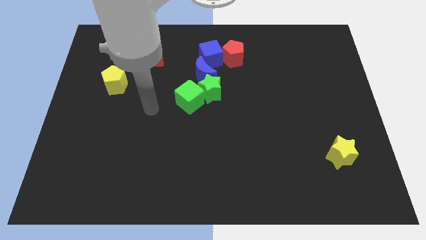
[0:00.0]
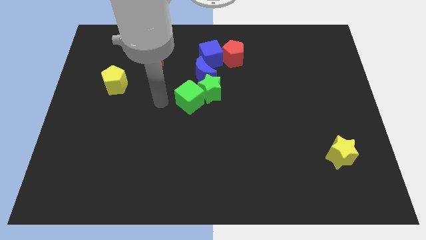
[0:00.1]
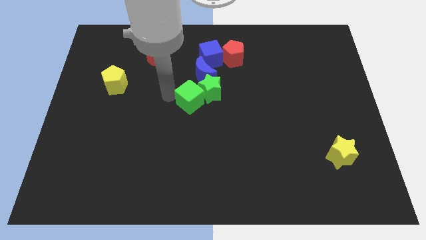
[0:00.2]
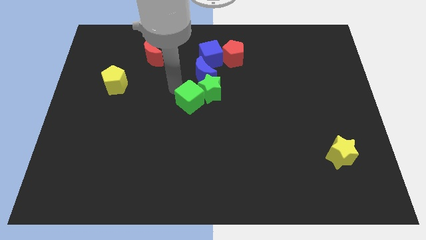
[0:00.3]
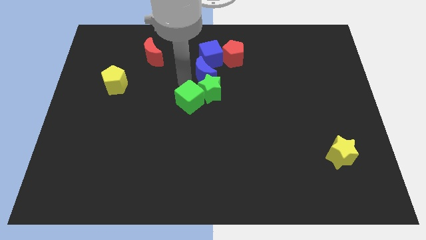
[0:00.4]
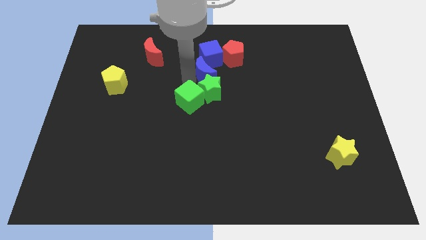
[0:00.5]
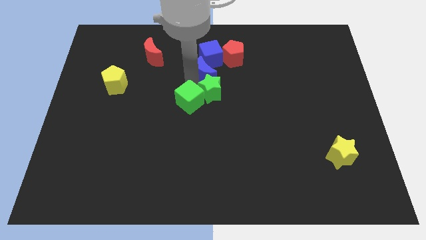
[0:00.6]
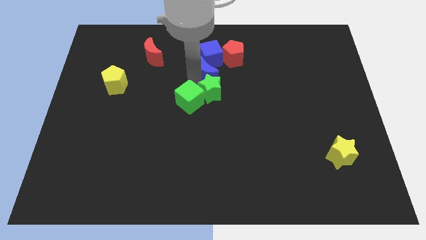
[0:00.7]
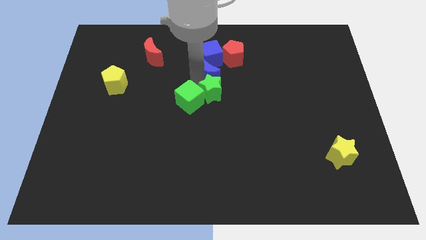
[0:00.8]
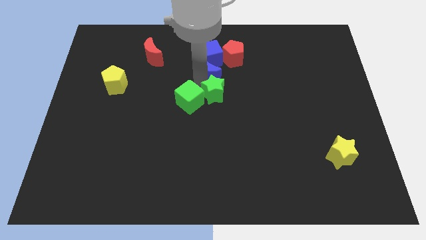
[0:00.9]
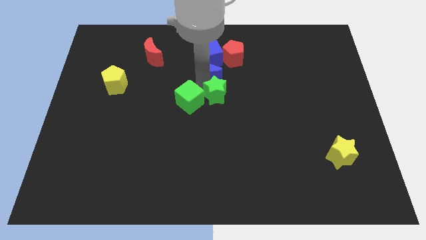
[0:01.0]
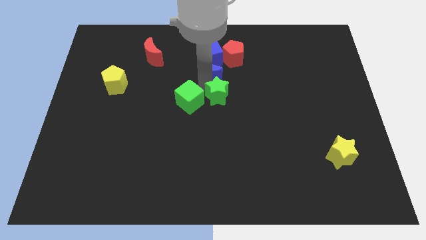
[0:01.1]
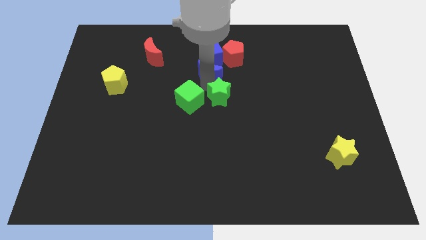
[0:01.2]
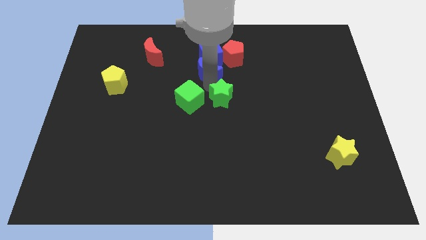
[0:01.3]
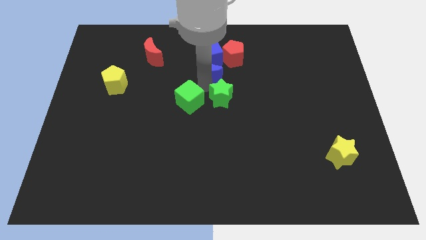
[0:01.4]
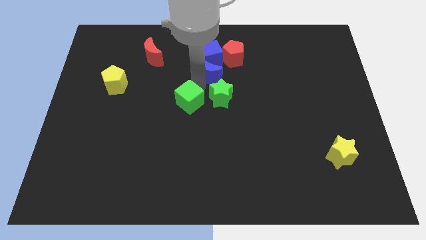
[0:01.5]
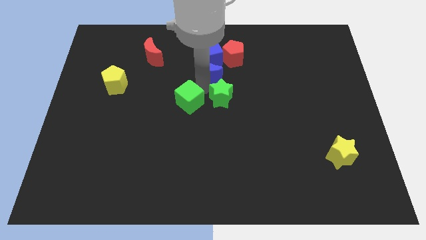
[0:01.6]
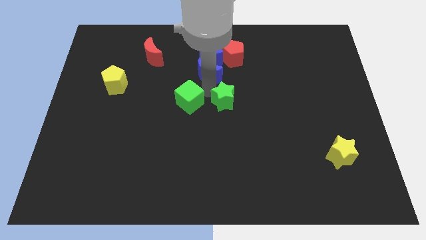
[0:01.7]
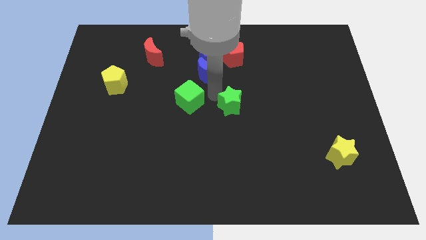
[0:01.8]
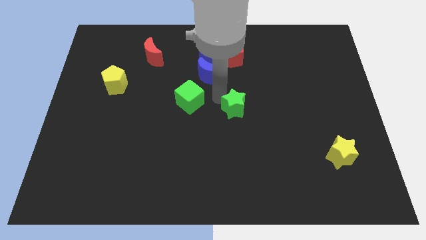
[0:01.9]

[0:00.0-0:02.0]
separate the green star from the green cube and blue moon

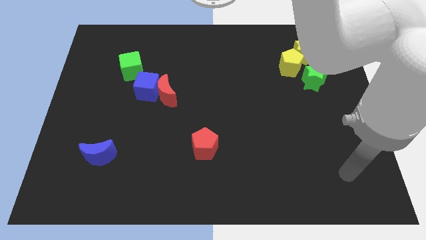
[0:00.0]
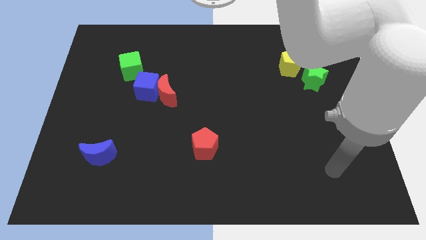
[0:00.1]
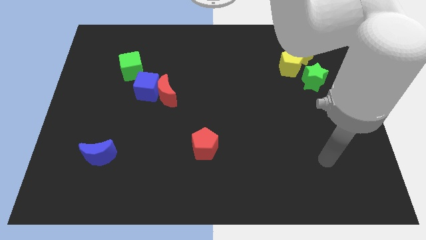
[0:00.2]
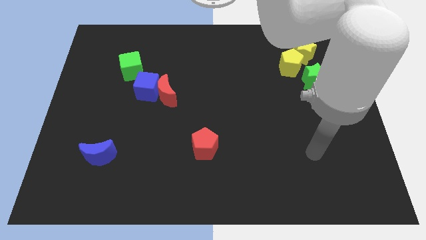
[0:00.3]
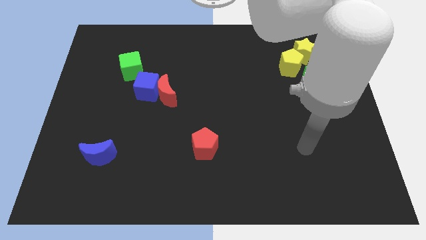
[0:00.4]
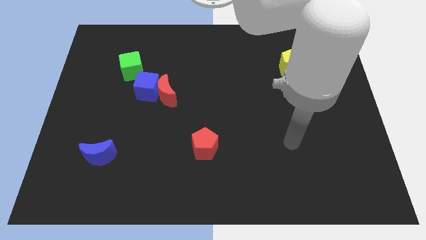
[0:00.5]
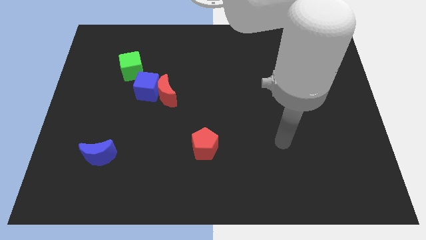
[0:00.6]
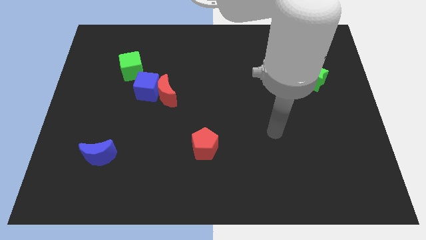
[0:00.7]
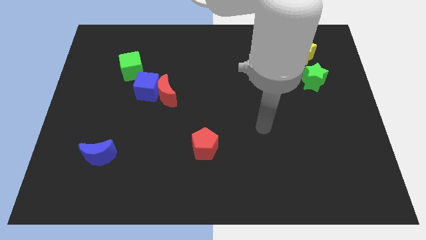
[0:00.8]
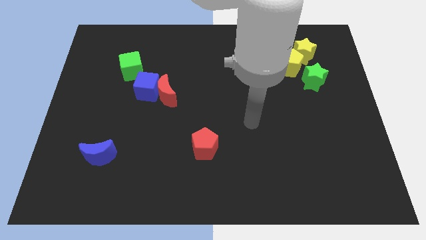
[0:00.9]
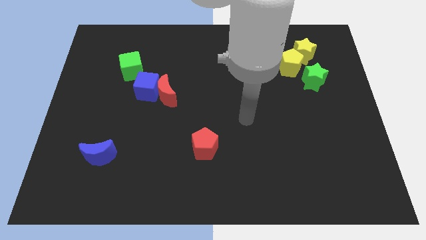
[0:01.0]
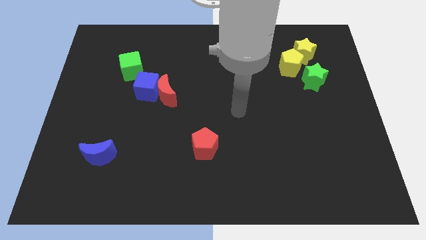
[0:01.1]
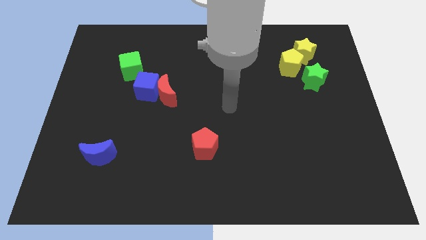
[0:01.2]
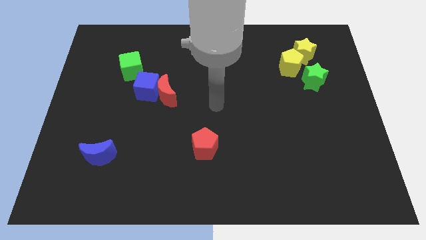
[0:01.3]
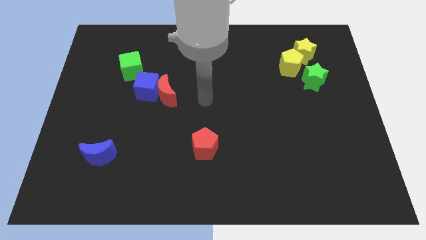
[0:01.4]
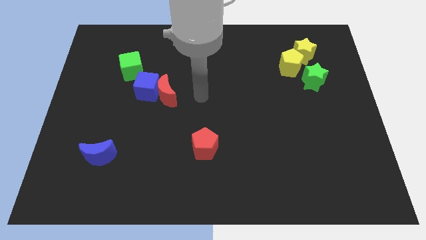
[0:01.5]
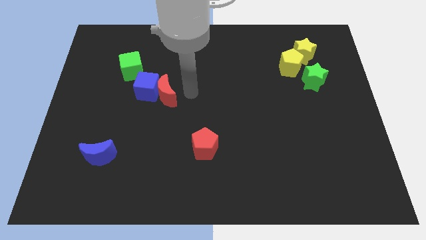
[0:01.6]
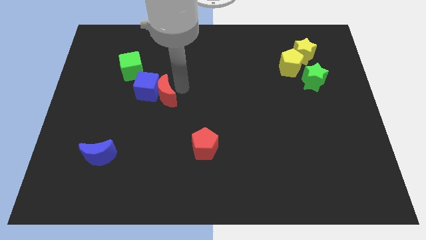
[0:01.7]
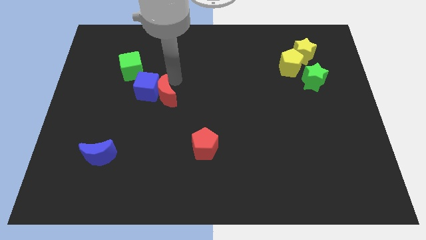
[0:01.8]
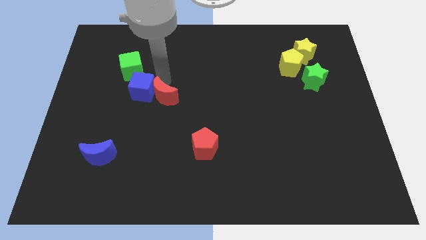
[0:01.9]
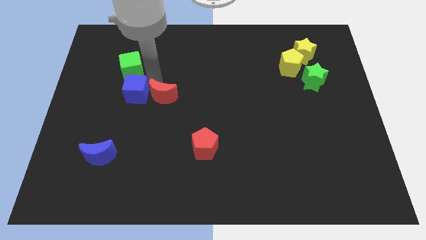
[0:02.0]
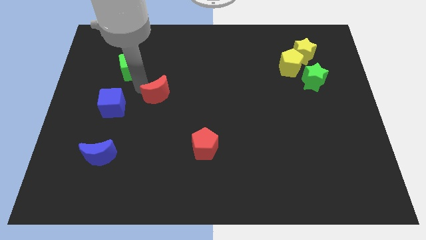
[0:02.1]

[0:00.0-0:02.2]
move the red moon away from the blue cube

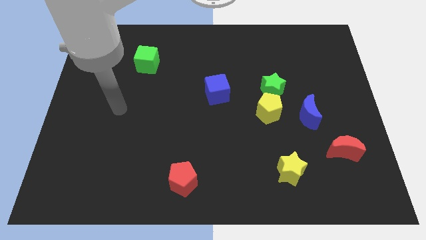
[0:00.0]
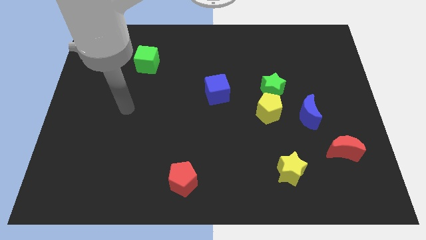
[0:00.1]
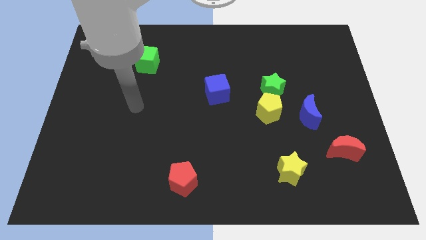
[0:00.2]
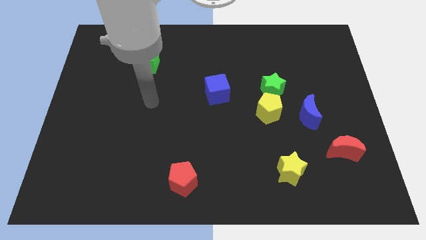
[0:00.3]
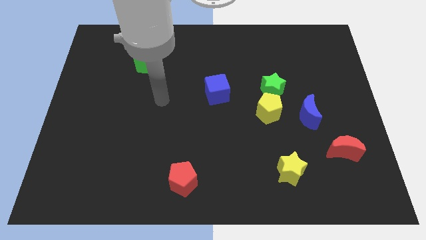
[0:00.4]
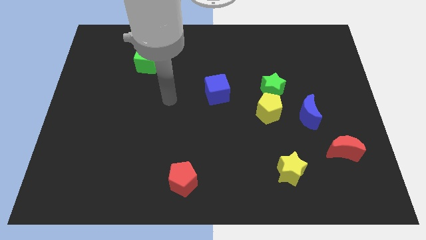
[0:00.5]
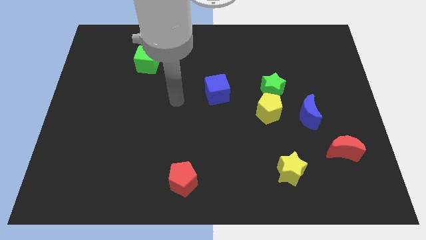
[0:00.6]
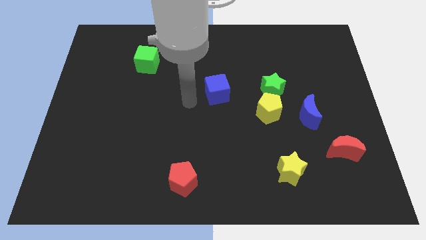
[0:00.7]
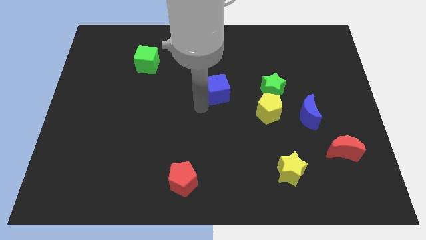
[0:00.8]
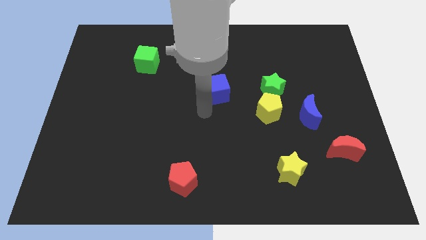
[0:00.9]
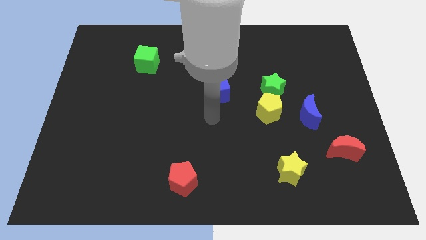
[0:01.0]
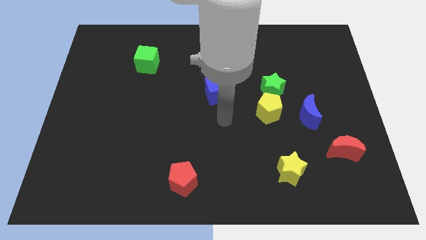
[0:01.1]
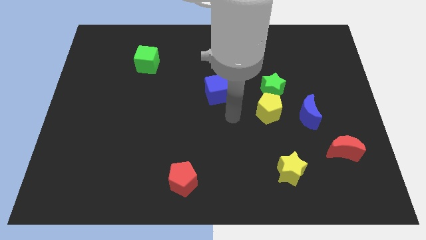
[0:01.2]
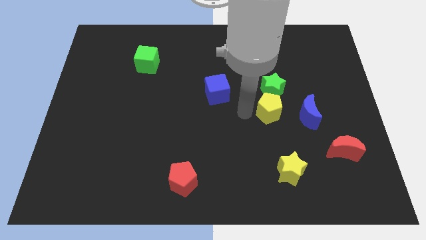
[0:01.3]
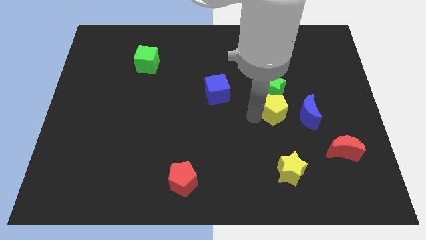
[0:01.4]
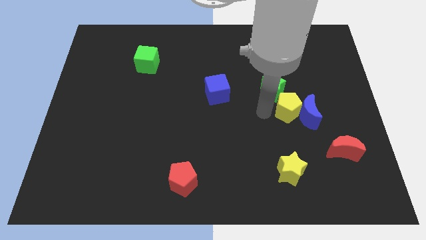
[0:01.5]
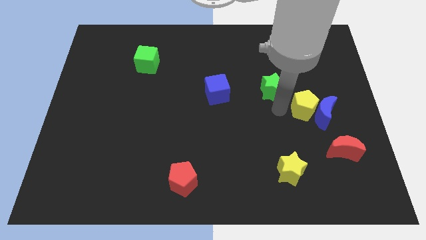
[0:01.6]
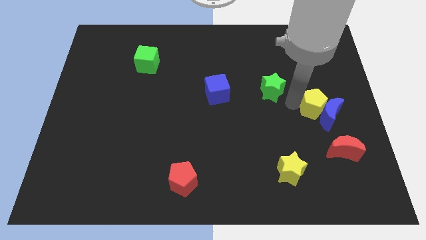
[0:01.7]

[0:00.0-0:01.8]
pull the green star apart from the yellow pentagon

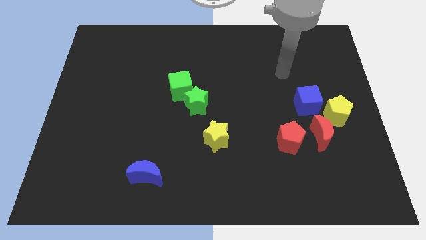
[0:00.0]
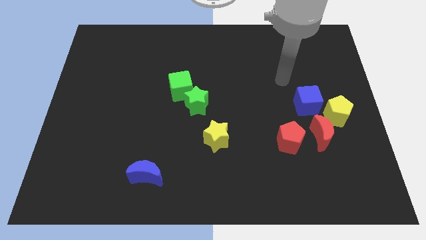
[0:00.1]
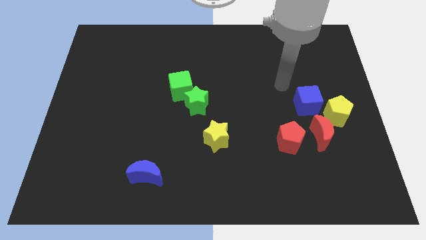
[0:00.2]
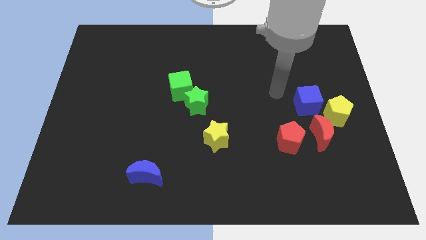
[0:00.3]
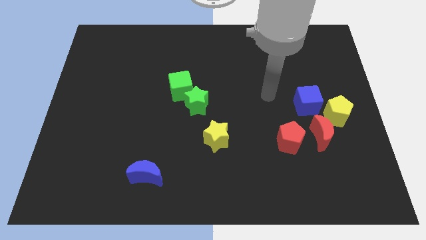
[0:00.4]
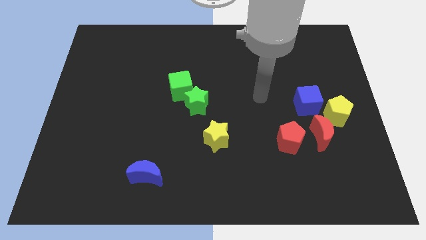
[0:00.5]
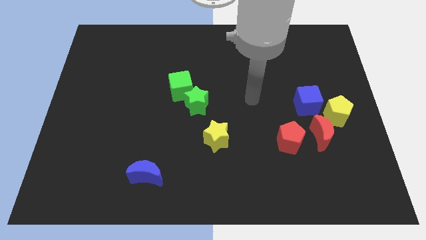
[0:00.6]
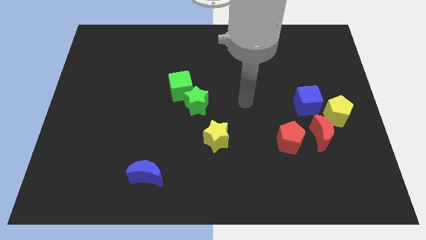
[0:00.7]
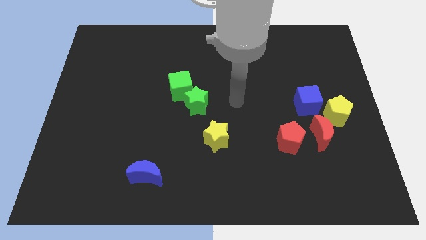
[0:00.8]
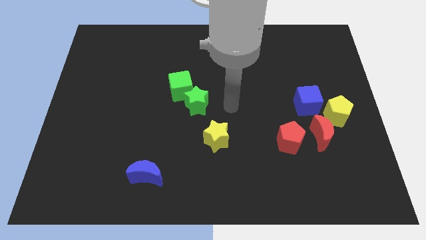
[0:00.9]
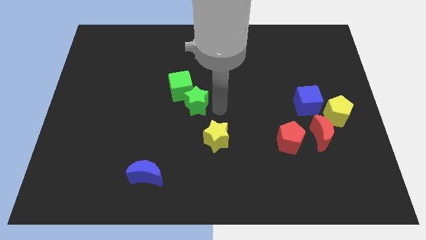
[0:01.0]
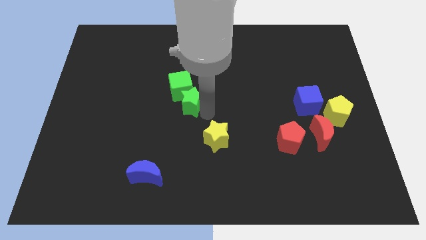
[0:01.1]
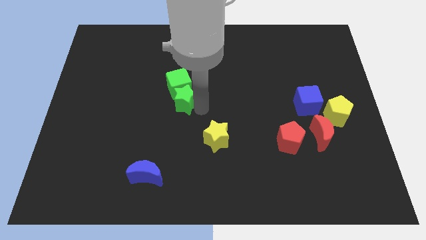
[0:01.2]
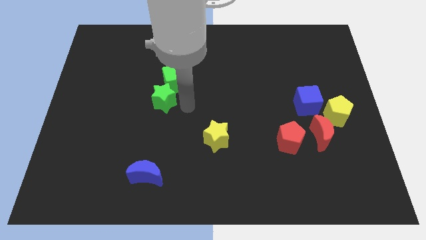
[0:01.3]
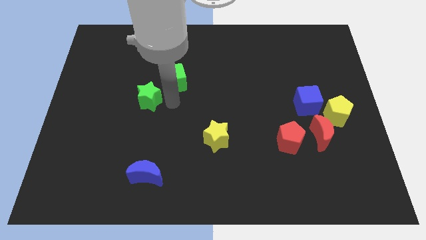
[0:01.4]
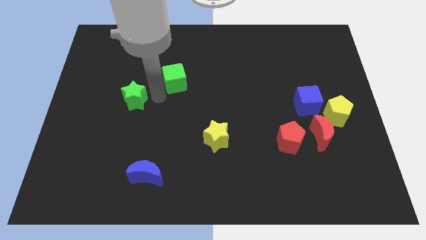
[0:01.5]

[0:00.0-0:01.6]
separate the green cube from the green star

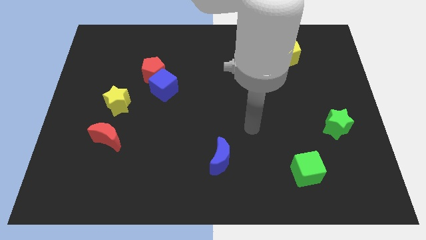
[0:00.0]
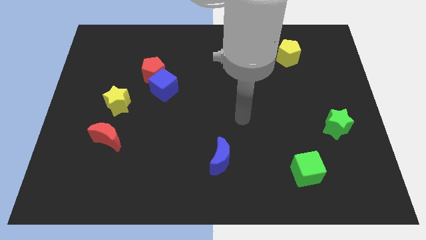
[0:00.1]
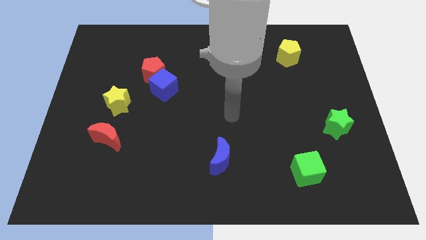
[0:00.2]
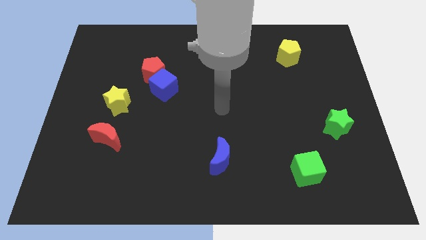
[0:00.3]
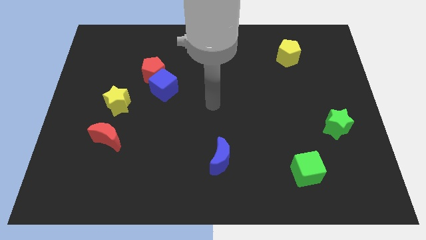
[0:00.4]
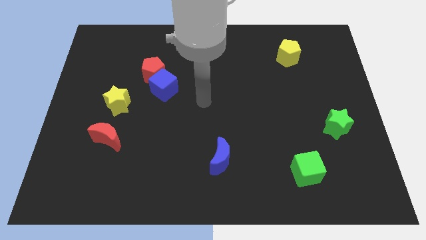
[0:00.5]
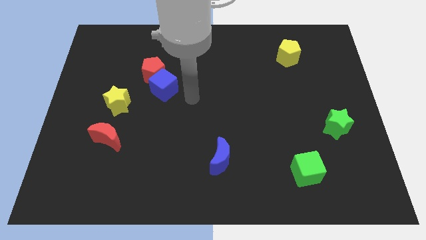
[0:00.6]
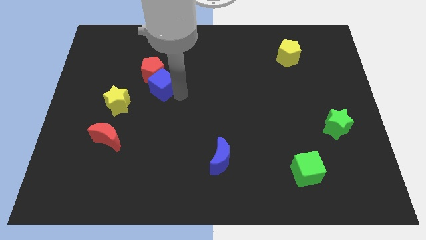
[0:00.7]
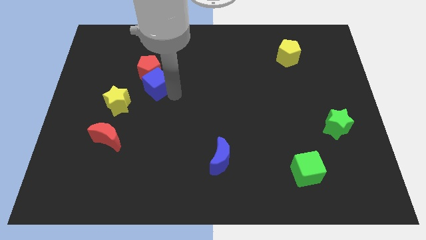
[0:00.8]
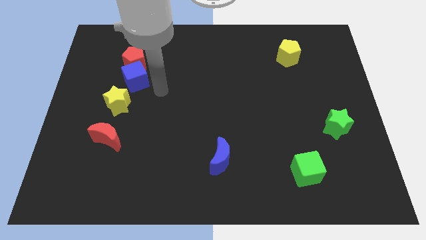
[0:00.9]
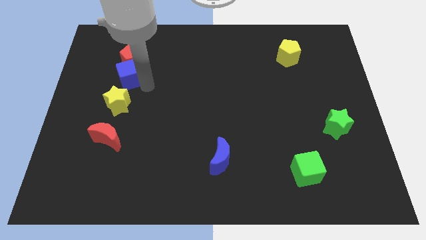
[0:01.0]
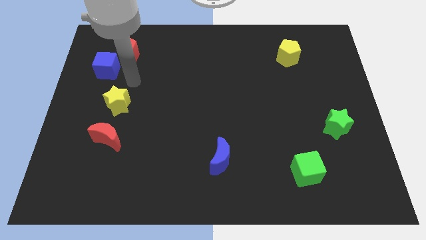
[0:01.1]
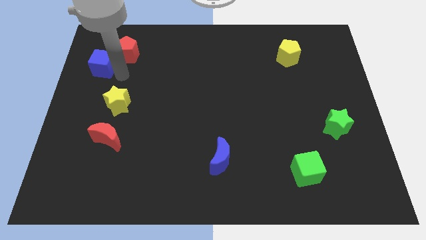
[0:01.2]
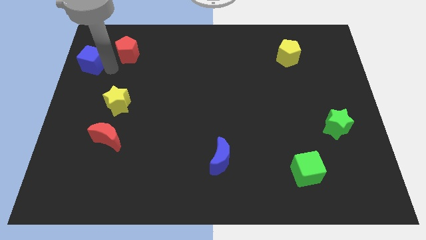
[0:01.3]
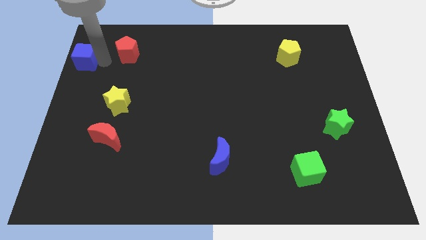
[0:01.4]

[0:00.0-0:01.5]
move the red pentagon away from the blue cube
